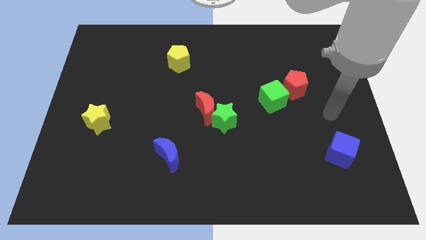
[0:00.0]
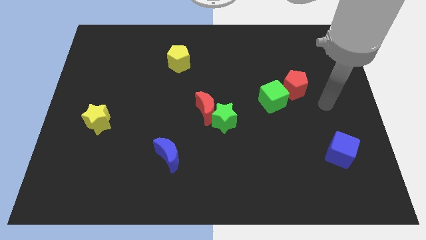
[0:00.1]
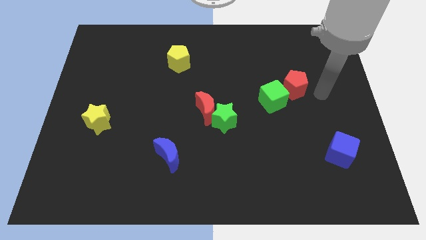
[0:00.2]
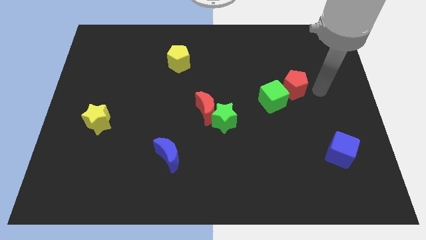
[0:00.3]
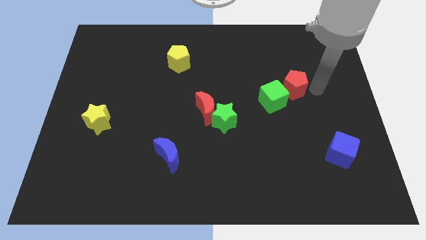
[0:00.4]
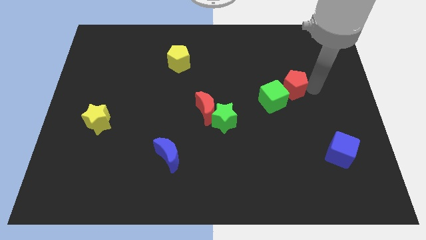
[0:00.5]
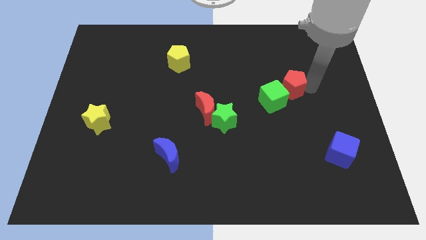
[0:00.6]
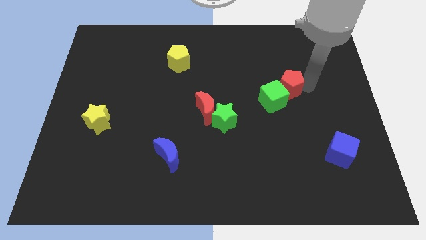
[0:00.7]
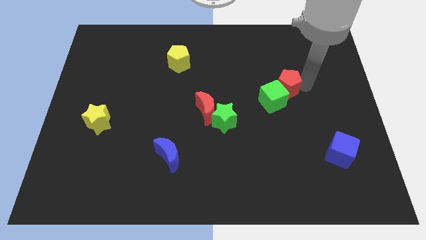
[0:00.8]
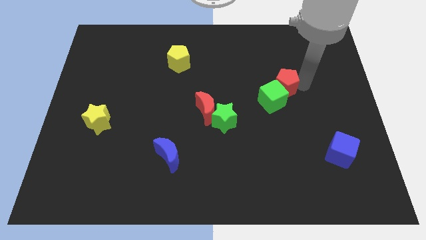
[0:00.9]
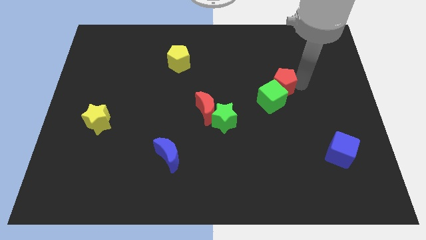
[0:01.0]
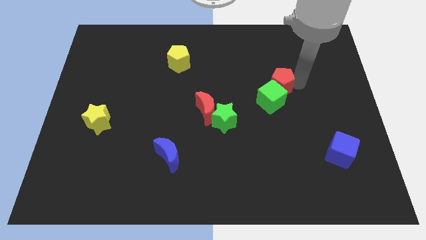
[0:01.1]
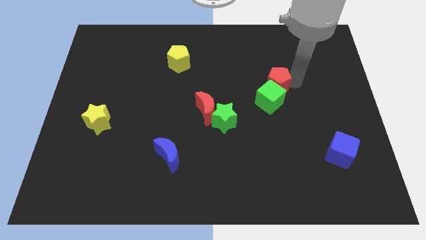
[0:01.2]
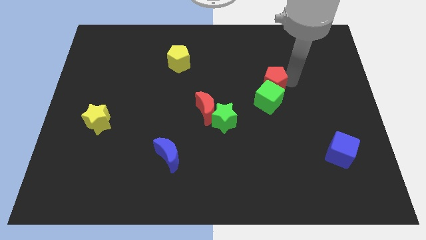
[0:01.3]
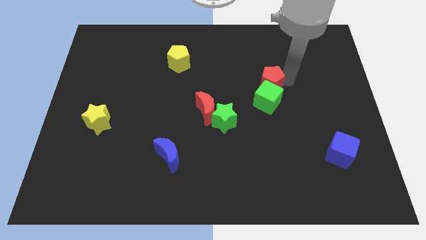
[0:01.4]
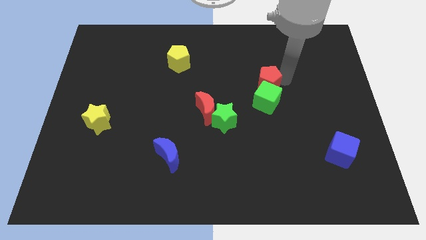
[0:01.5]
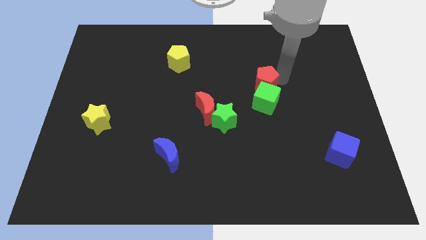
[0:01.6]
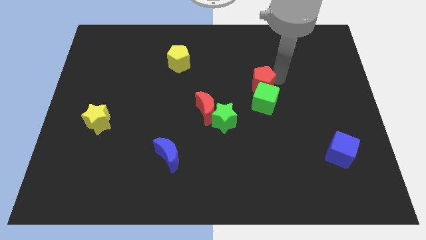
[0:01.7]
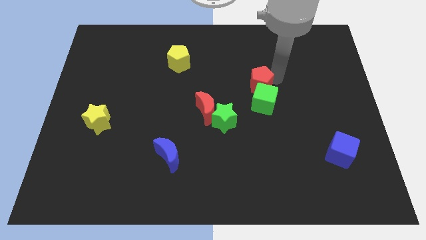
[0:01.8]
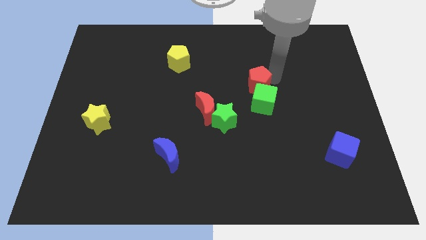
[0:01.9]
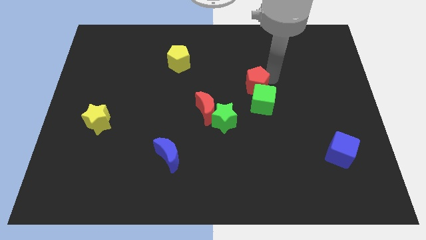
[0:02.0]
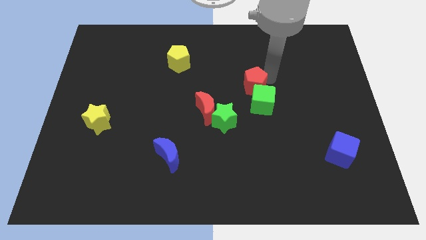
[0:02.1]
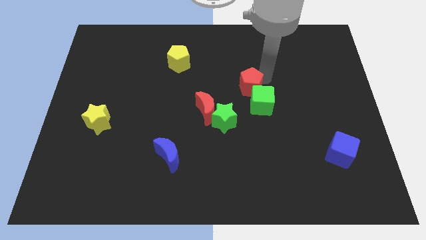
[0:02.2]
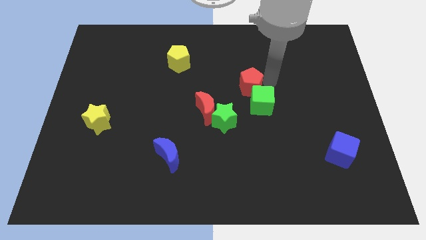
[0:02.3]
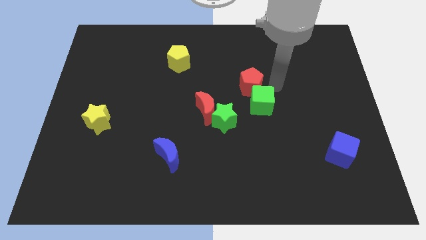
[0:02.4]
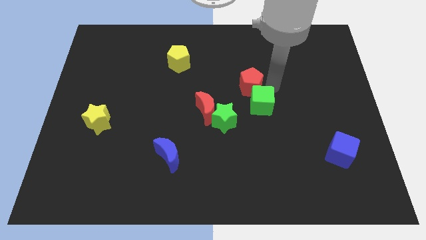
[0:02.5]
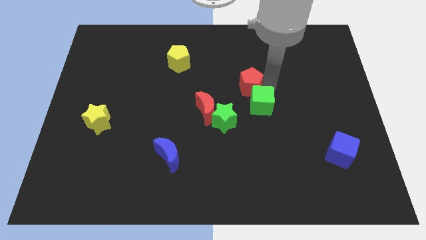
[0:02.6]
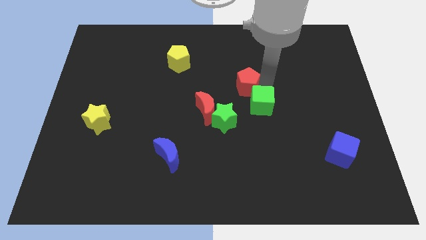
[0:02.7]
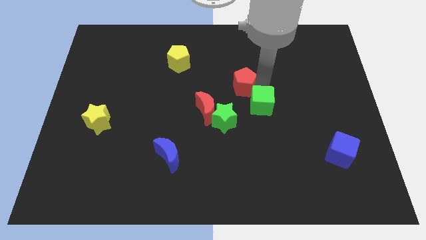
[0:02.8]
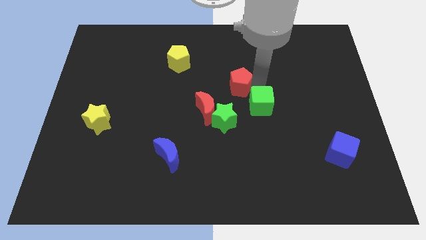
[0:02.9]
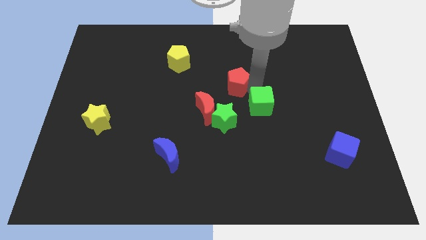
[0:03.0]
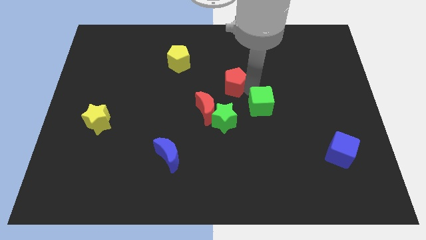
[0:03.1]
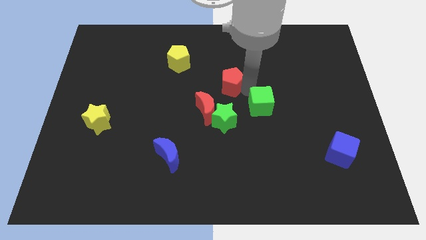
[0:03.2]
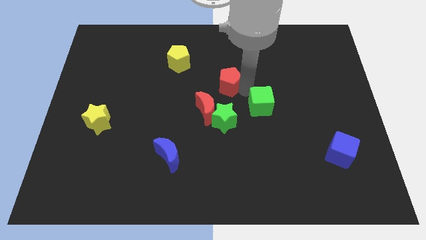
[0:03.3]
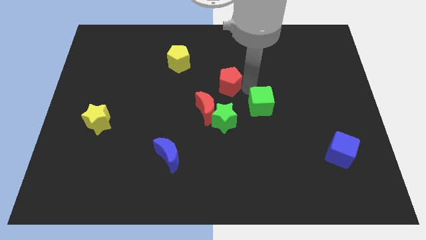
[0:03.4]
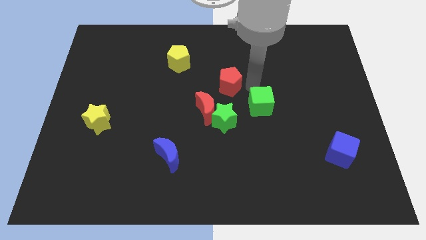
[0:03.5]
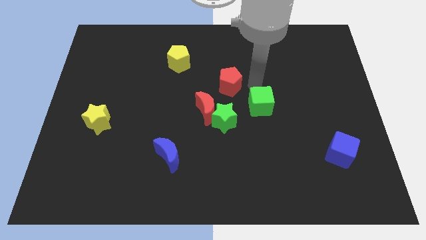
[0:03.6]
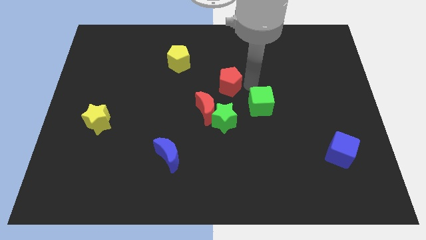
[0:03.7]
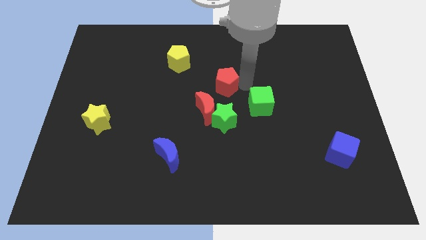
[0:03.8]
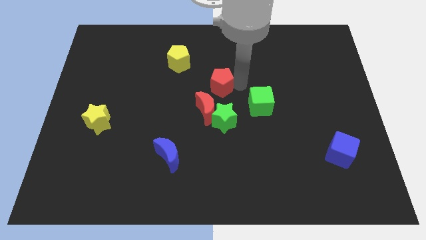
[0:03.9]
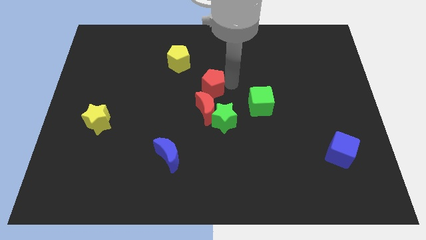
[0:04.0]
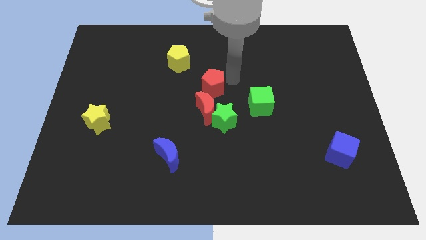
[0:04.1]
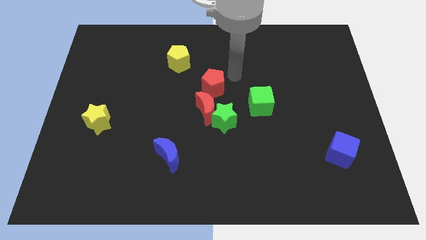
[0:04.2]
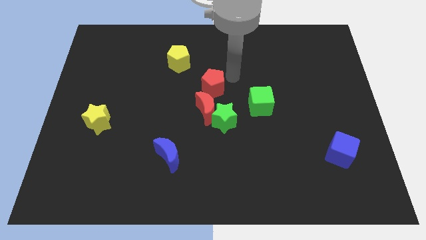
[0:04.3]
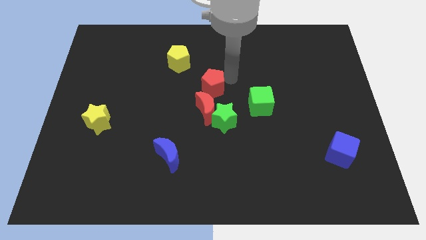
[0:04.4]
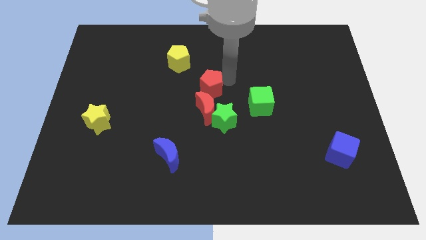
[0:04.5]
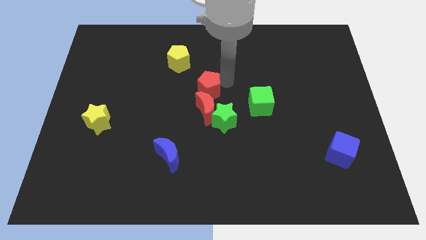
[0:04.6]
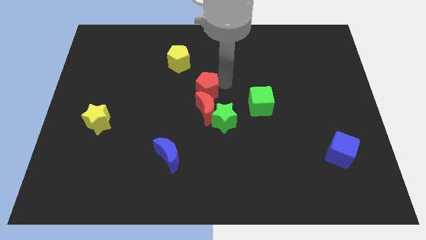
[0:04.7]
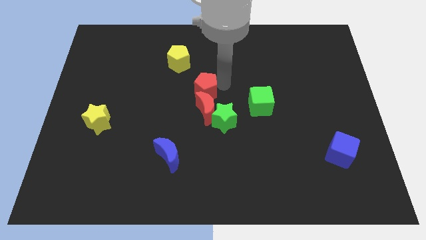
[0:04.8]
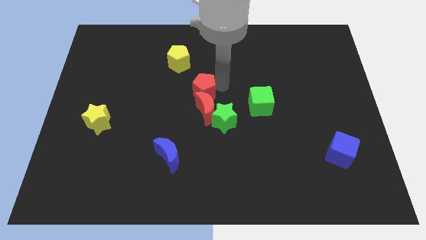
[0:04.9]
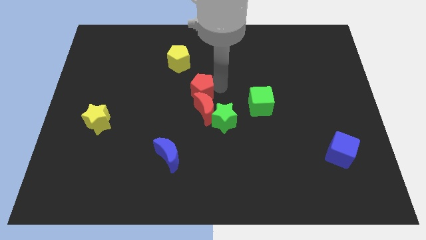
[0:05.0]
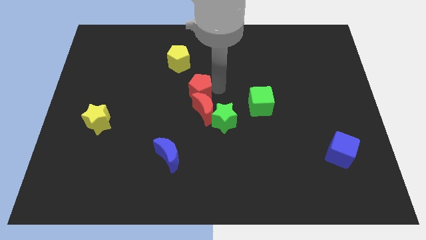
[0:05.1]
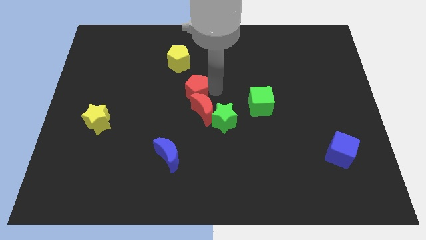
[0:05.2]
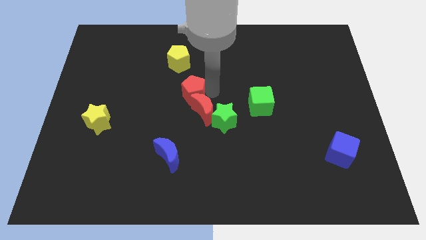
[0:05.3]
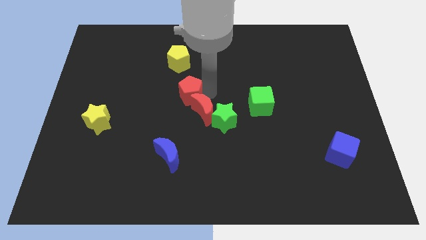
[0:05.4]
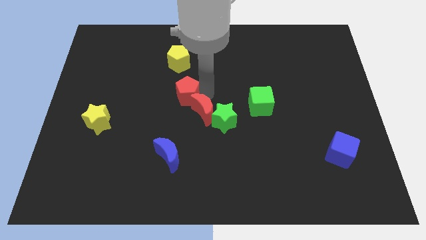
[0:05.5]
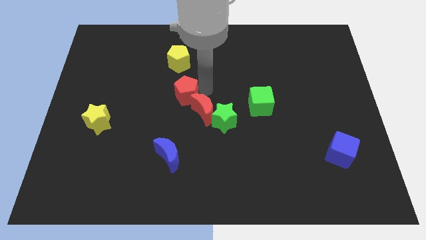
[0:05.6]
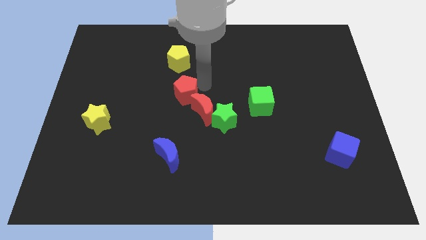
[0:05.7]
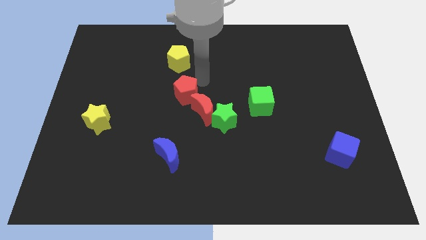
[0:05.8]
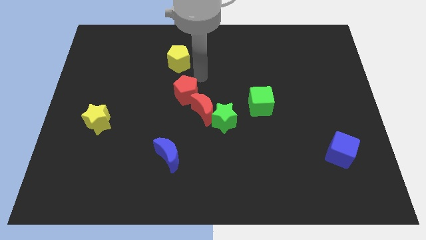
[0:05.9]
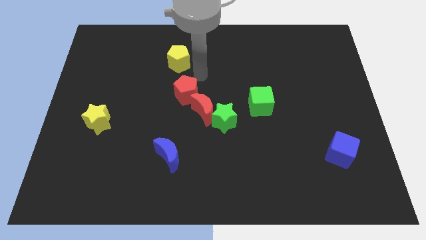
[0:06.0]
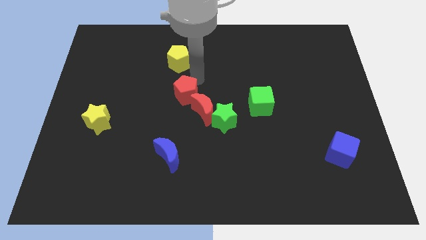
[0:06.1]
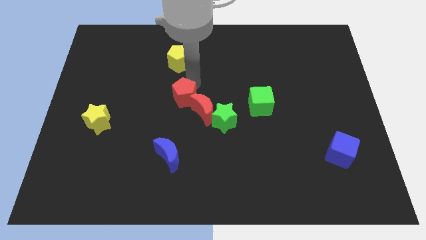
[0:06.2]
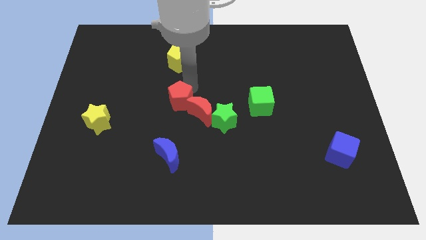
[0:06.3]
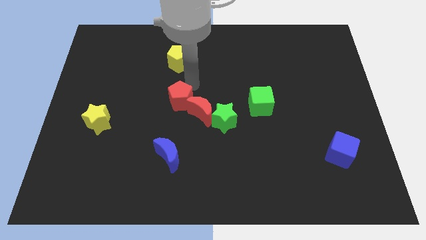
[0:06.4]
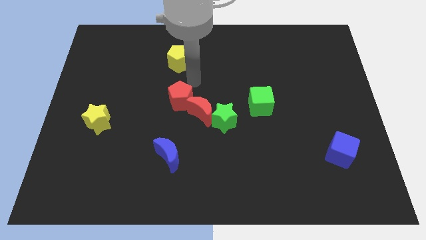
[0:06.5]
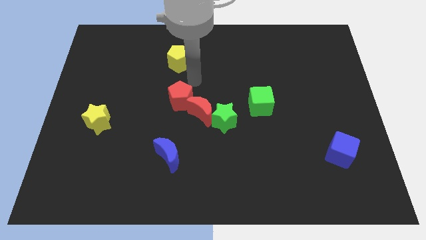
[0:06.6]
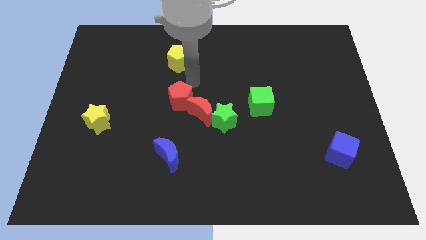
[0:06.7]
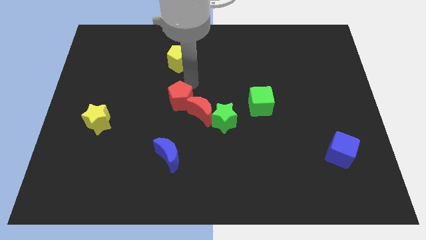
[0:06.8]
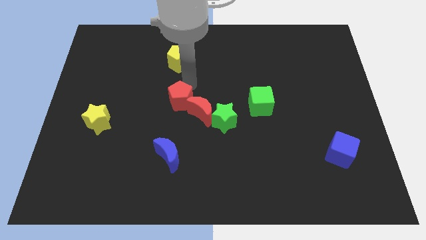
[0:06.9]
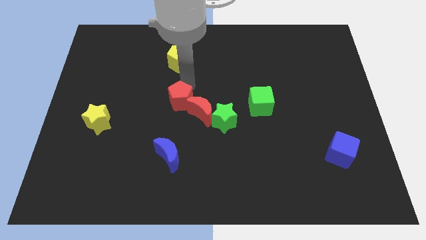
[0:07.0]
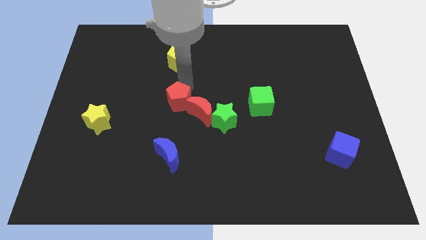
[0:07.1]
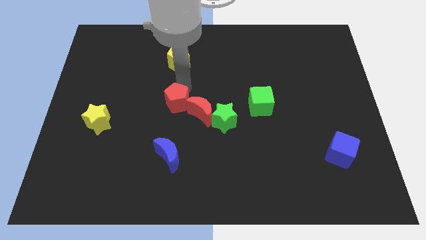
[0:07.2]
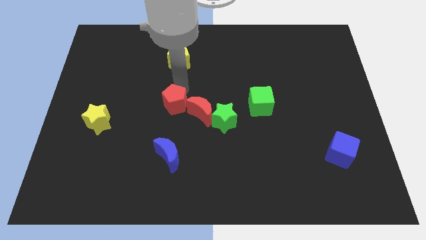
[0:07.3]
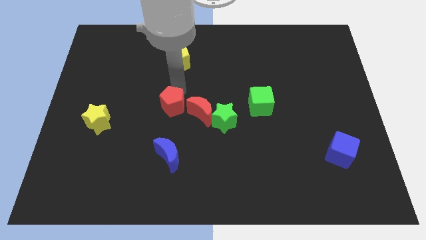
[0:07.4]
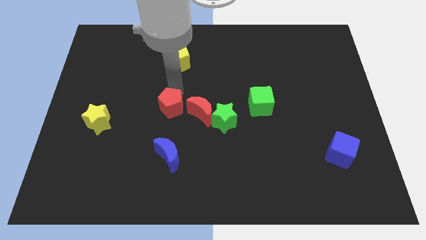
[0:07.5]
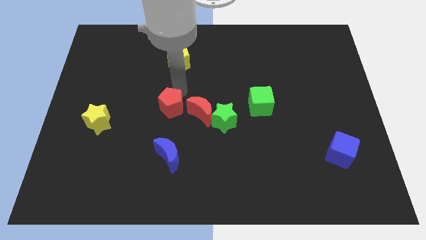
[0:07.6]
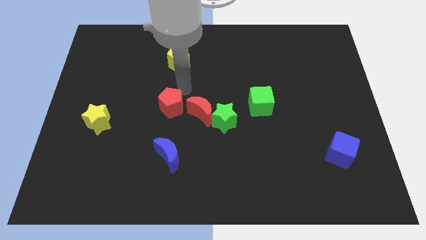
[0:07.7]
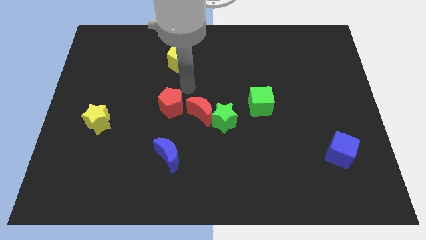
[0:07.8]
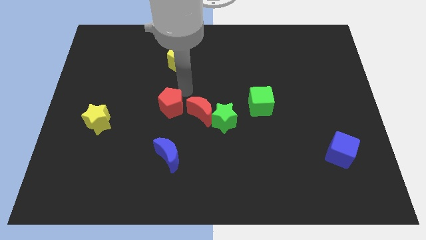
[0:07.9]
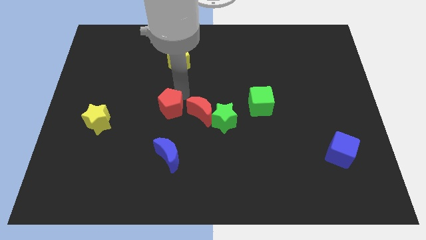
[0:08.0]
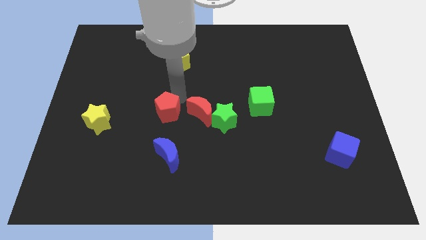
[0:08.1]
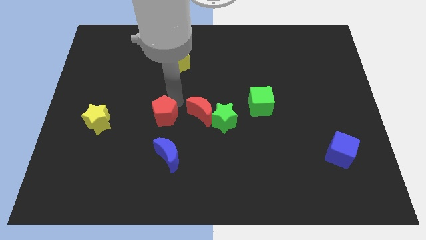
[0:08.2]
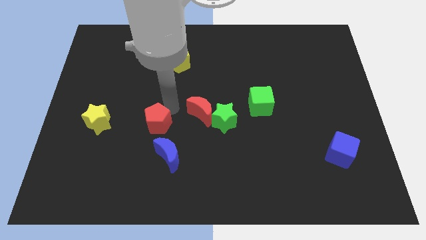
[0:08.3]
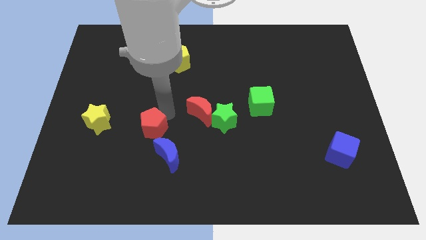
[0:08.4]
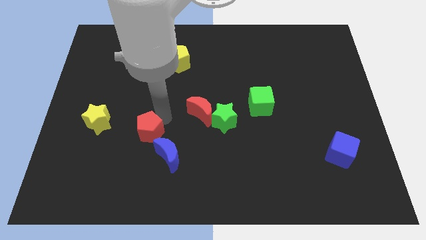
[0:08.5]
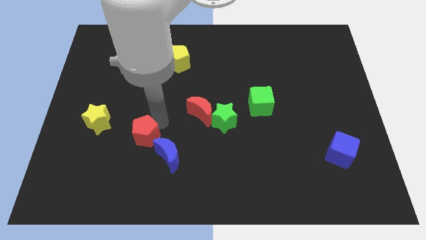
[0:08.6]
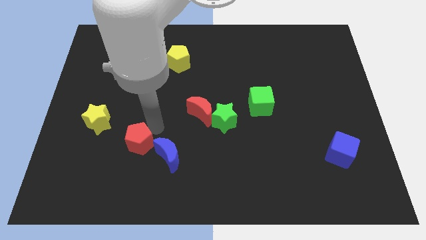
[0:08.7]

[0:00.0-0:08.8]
put the red pentagon to the bottom right of the yellow star
